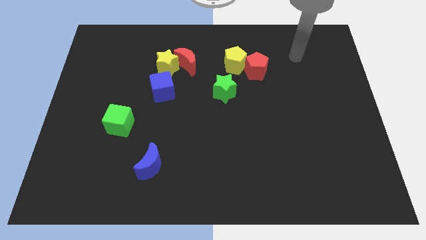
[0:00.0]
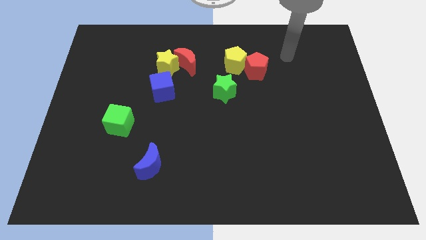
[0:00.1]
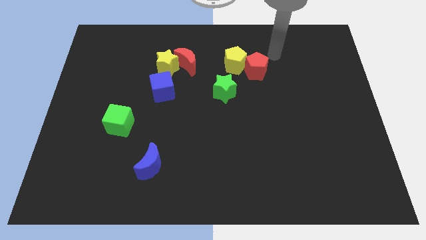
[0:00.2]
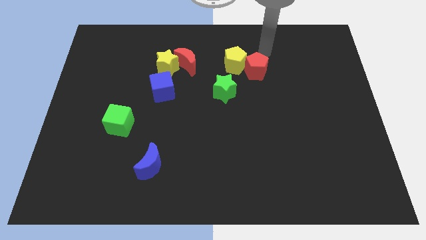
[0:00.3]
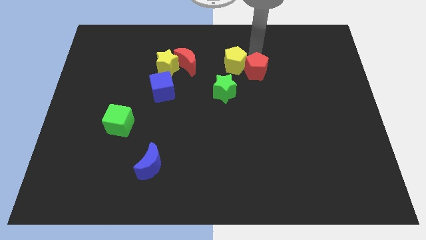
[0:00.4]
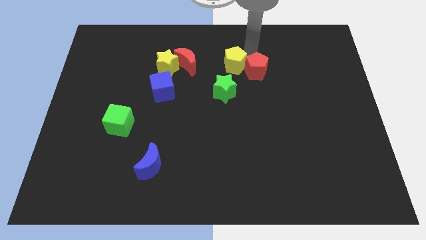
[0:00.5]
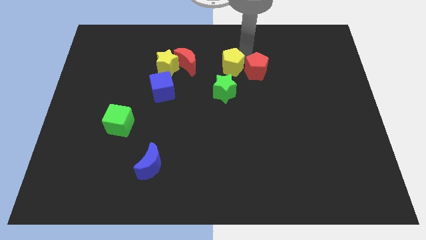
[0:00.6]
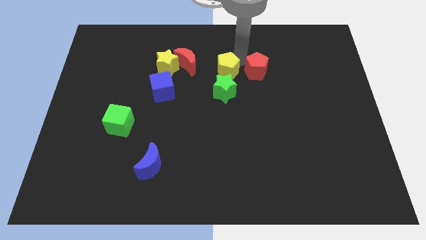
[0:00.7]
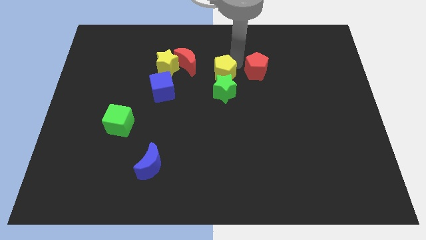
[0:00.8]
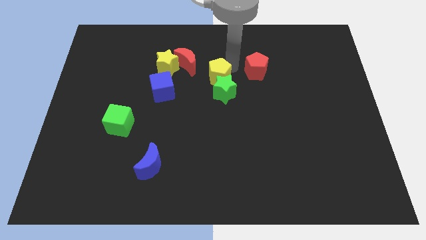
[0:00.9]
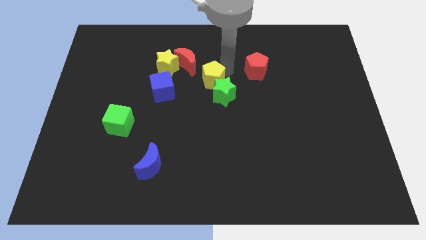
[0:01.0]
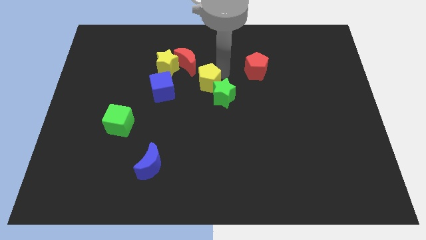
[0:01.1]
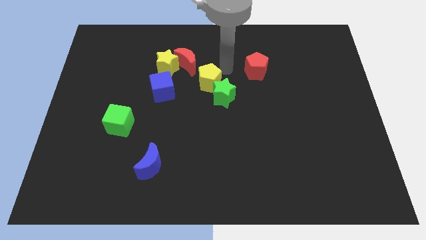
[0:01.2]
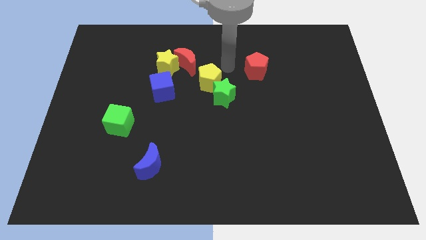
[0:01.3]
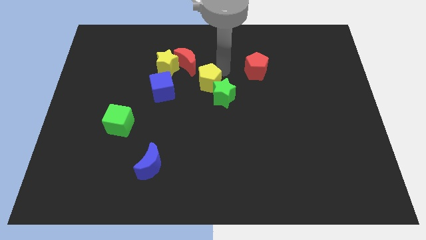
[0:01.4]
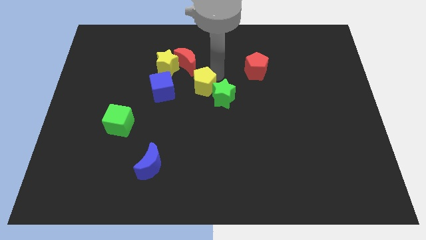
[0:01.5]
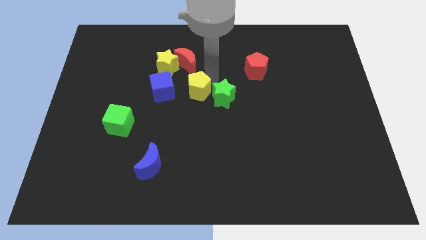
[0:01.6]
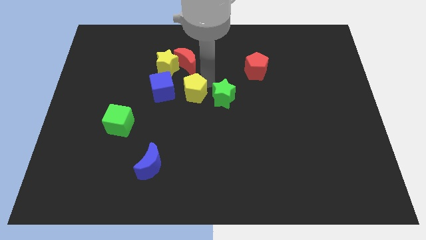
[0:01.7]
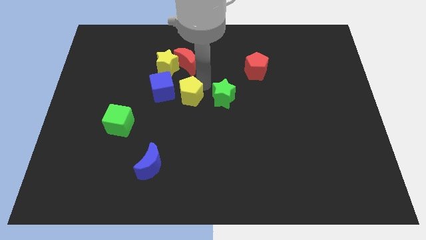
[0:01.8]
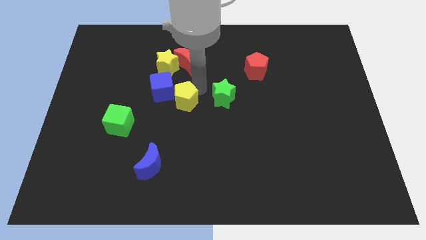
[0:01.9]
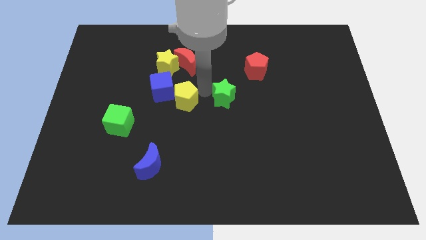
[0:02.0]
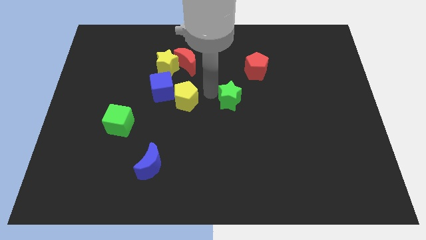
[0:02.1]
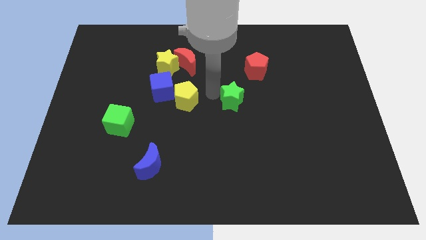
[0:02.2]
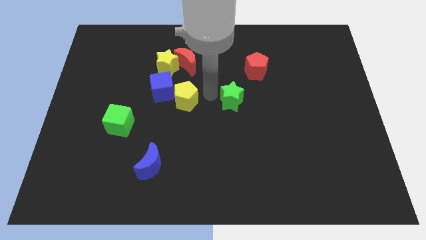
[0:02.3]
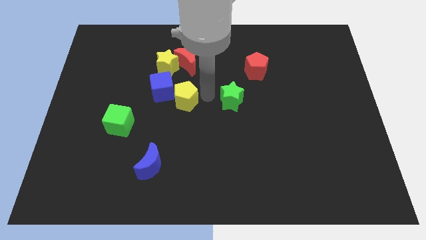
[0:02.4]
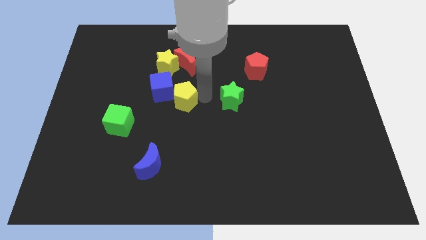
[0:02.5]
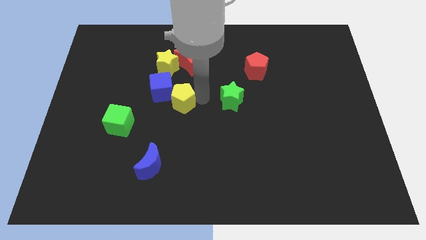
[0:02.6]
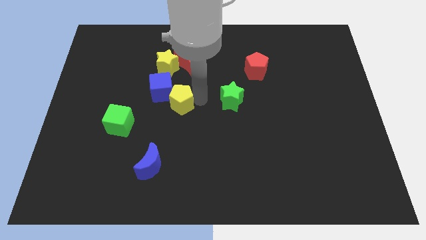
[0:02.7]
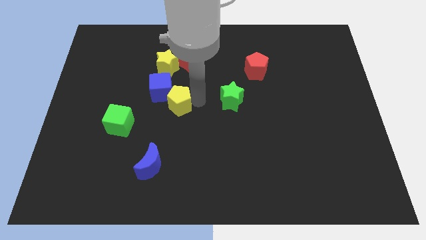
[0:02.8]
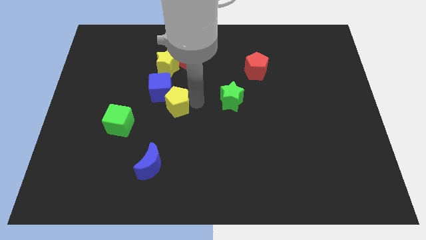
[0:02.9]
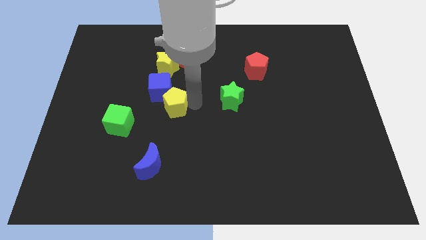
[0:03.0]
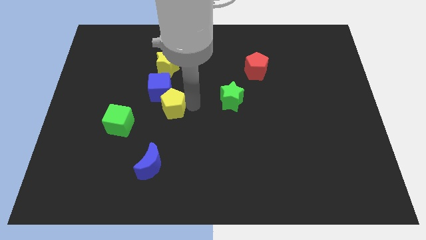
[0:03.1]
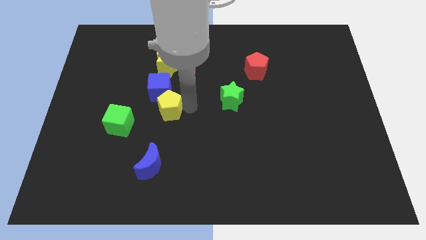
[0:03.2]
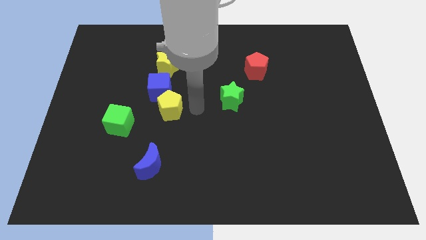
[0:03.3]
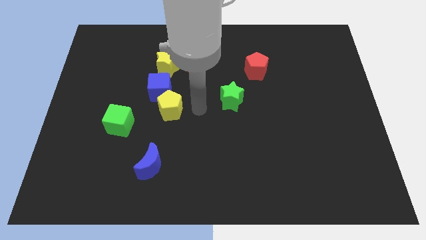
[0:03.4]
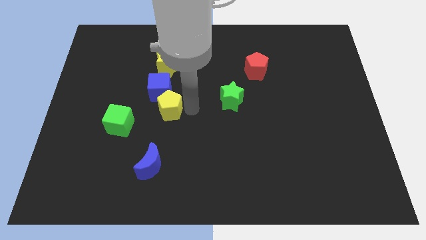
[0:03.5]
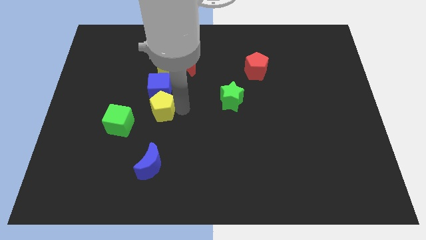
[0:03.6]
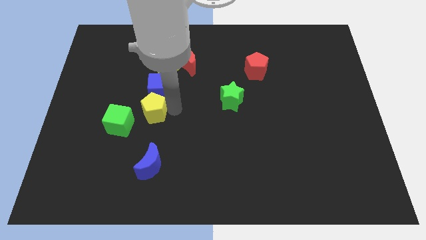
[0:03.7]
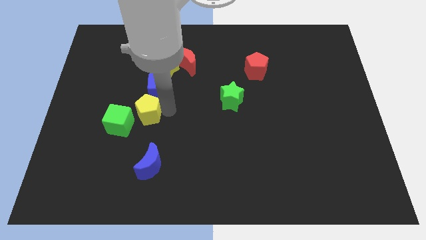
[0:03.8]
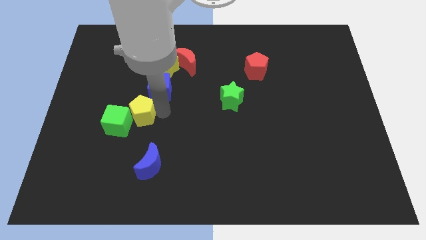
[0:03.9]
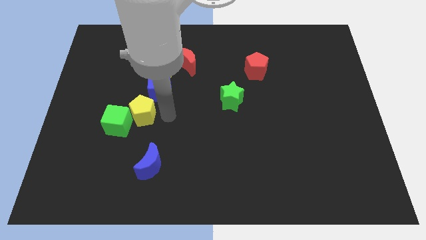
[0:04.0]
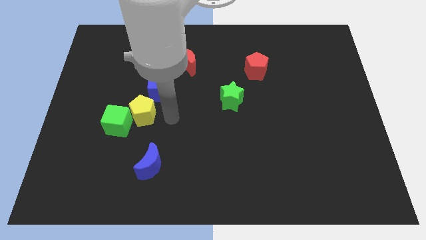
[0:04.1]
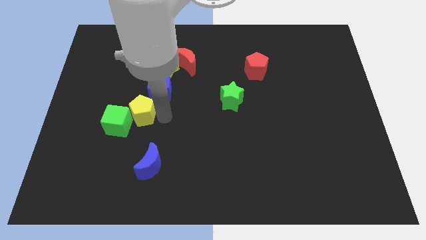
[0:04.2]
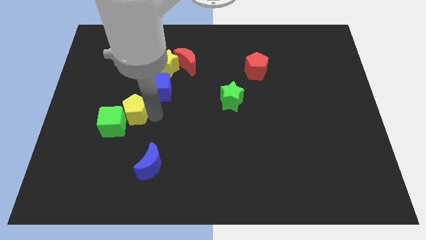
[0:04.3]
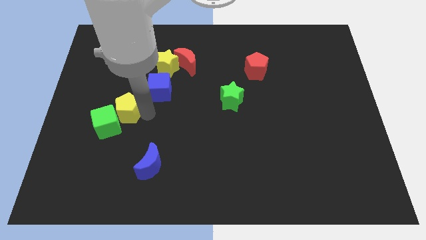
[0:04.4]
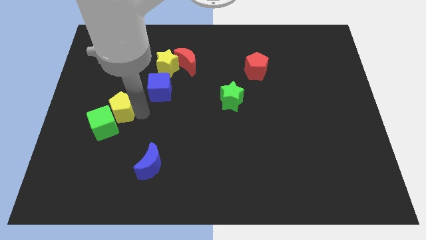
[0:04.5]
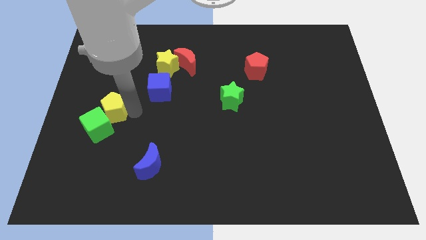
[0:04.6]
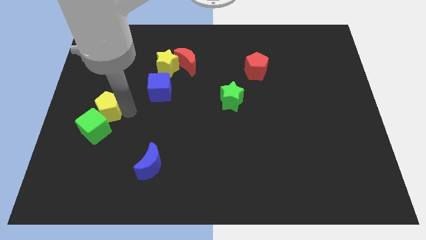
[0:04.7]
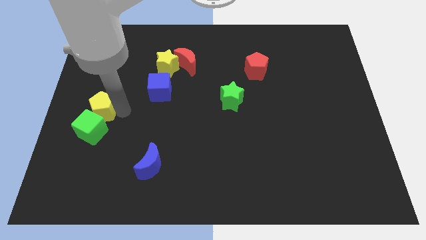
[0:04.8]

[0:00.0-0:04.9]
move the yellow pentagon to the left side of the board

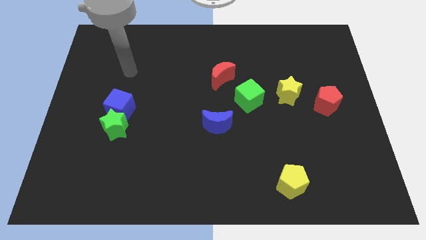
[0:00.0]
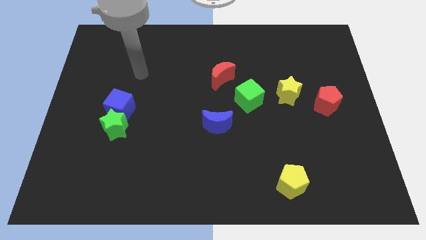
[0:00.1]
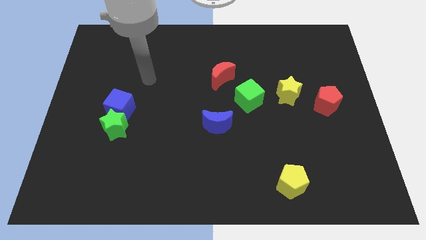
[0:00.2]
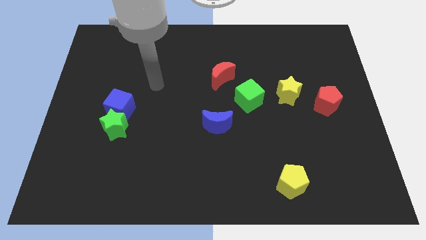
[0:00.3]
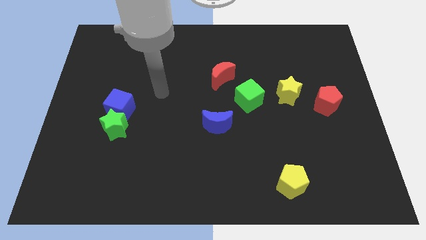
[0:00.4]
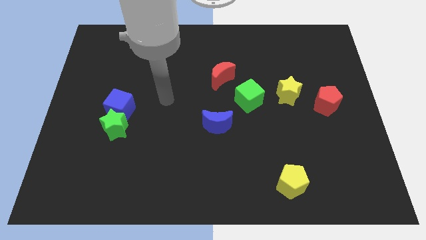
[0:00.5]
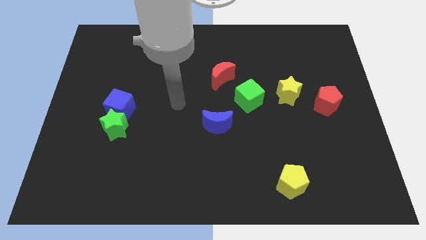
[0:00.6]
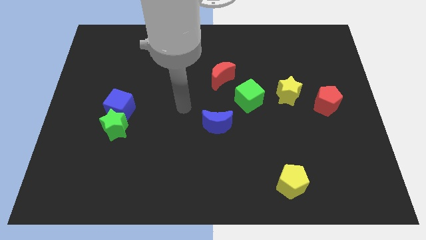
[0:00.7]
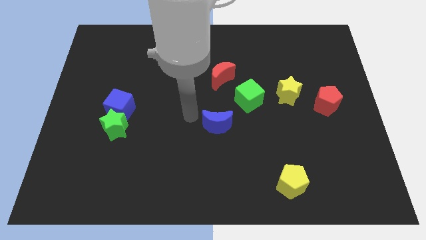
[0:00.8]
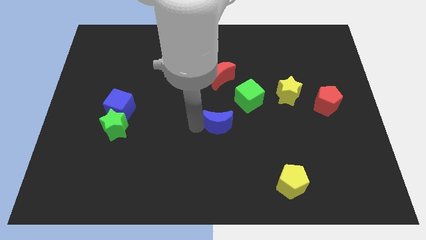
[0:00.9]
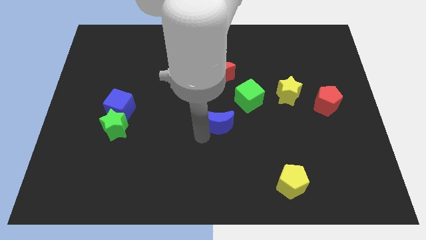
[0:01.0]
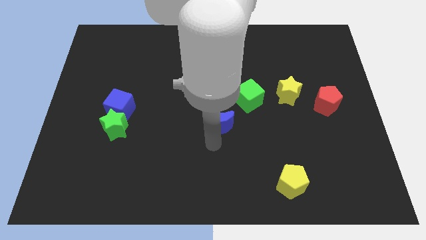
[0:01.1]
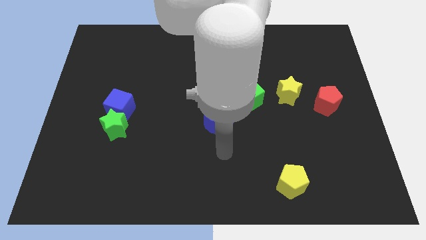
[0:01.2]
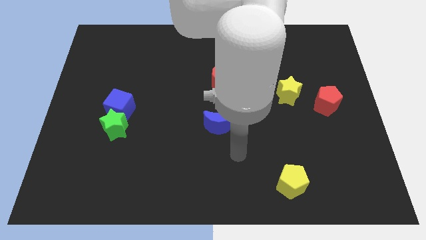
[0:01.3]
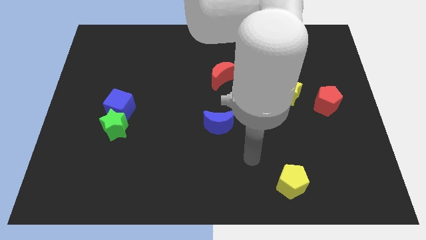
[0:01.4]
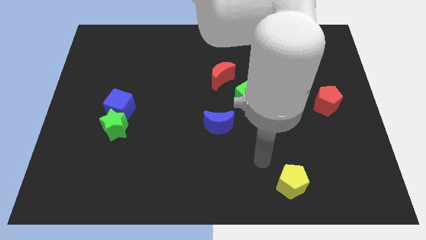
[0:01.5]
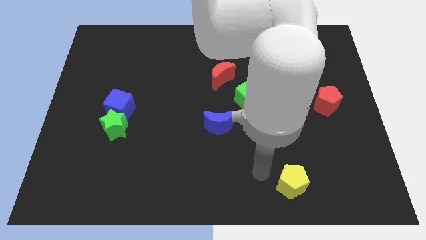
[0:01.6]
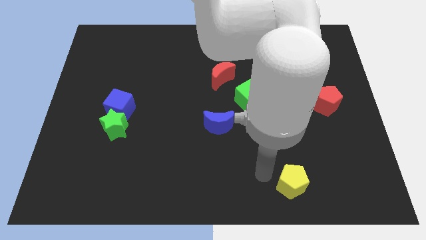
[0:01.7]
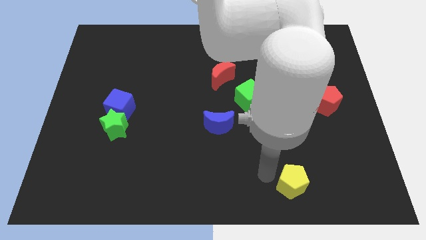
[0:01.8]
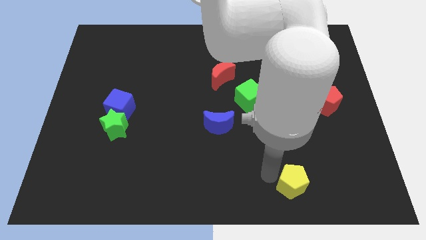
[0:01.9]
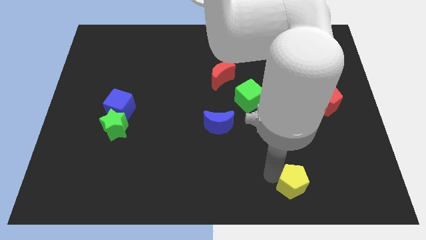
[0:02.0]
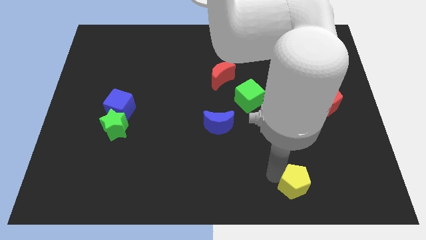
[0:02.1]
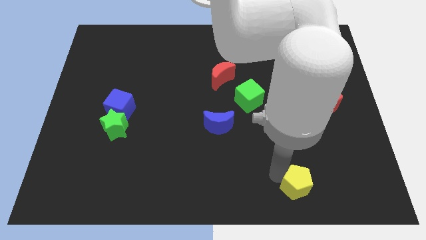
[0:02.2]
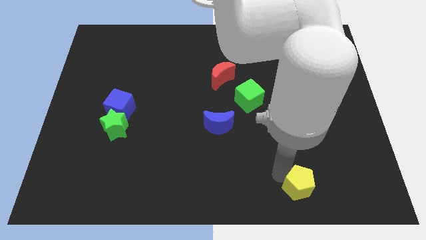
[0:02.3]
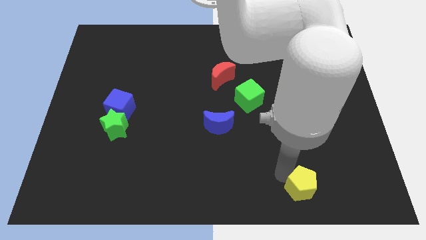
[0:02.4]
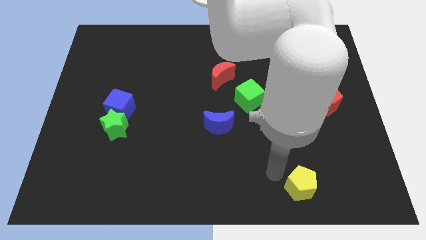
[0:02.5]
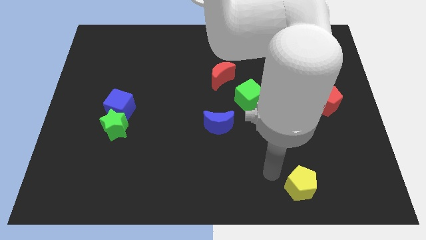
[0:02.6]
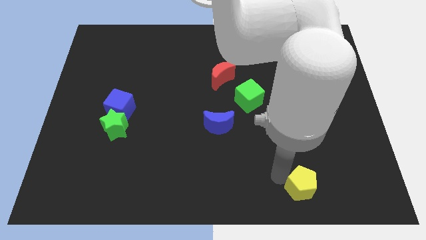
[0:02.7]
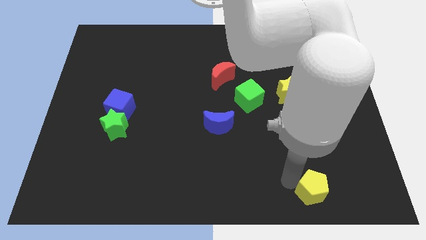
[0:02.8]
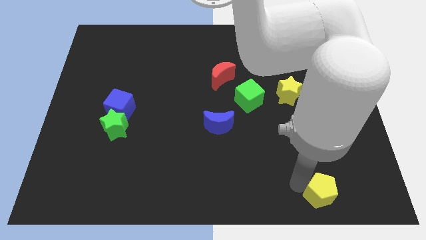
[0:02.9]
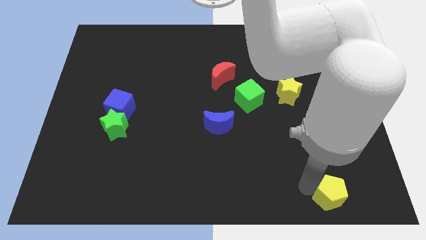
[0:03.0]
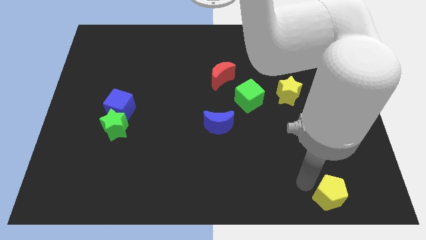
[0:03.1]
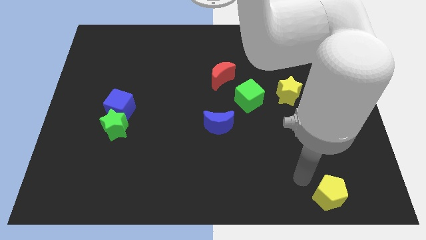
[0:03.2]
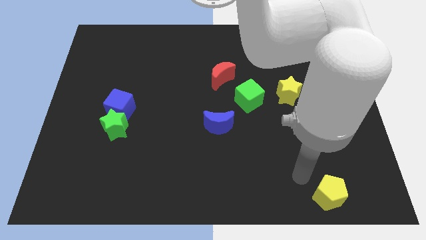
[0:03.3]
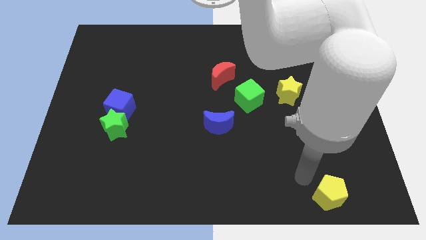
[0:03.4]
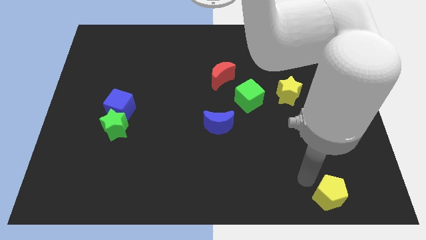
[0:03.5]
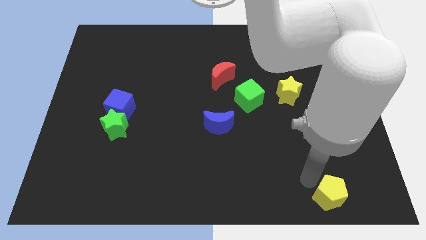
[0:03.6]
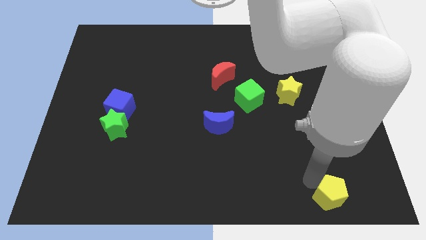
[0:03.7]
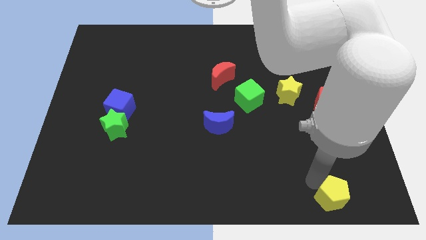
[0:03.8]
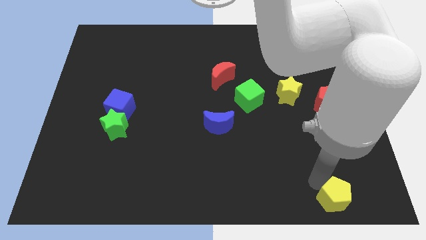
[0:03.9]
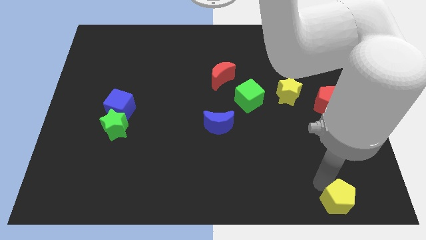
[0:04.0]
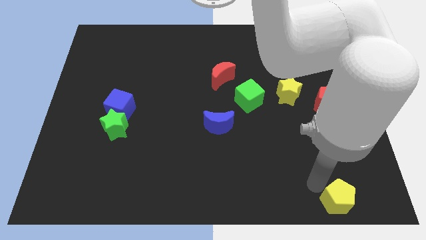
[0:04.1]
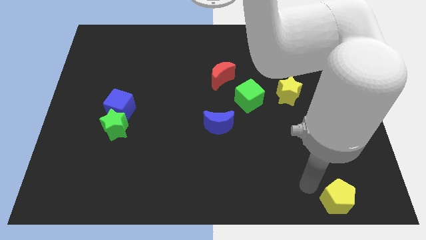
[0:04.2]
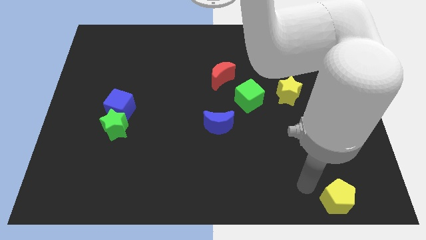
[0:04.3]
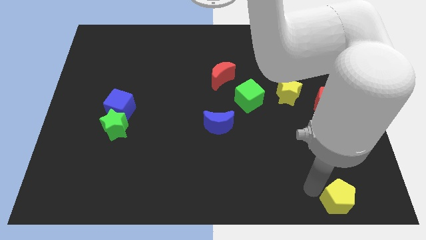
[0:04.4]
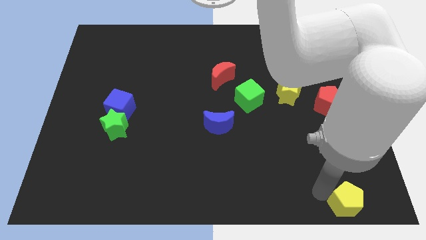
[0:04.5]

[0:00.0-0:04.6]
move the yellow pentagon to the bottom right corner
